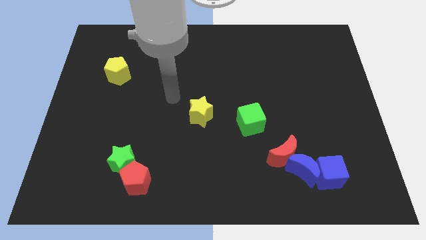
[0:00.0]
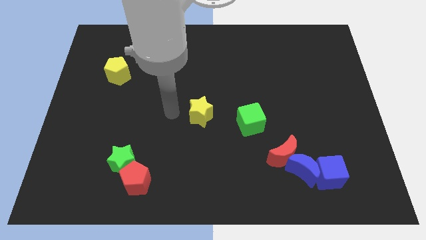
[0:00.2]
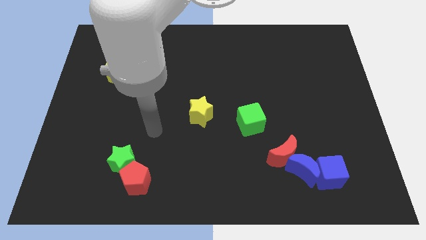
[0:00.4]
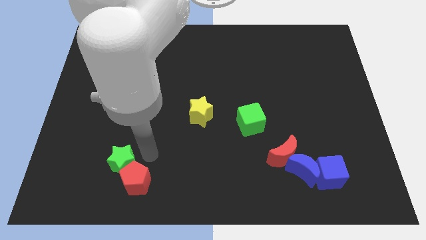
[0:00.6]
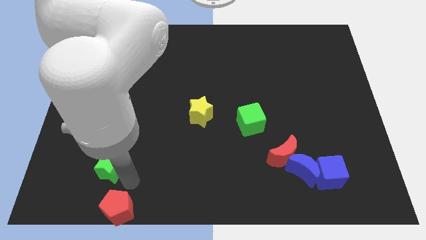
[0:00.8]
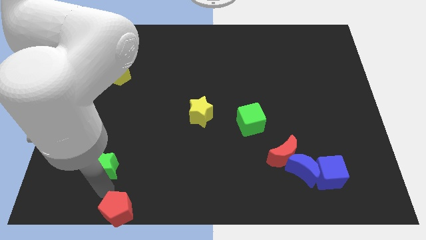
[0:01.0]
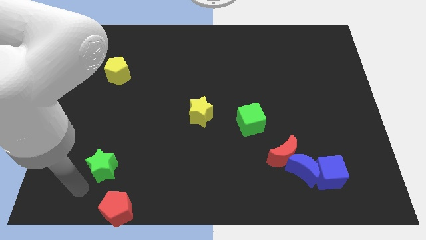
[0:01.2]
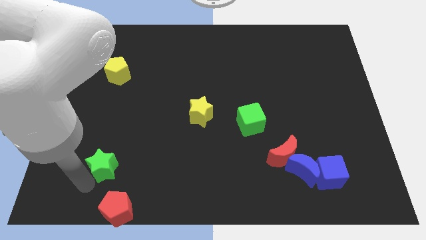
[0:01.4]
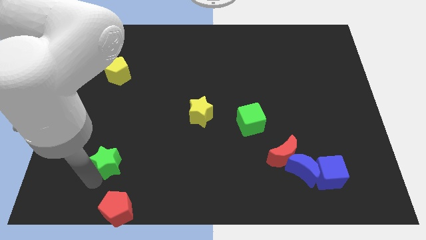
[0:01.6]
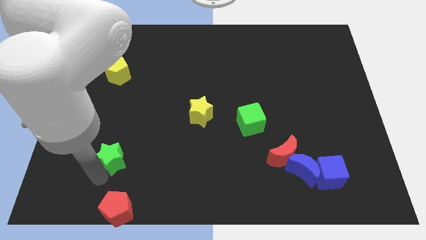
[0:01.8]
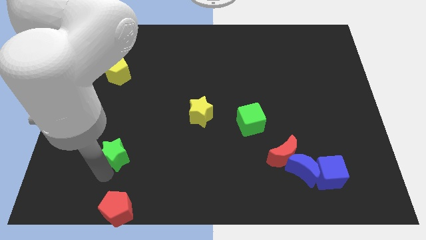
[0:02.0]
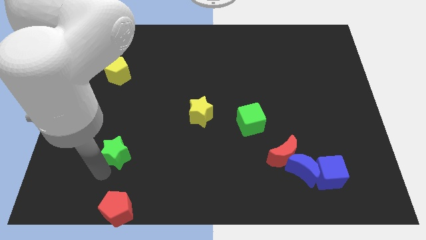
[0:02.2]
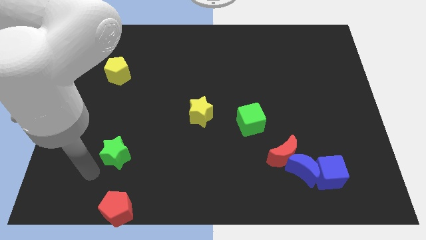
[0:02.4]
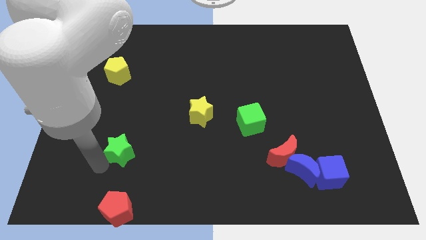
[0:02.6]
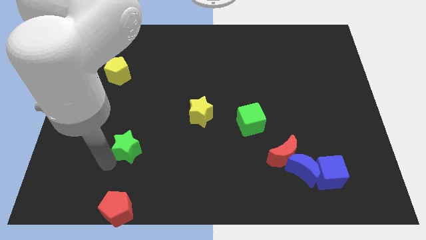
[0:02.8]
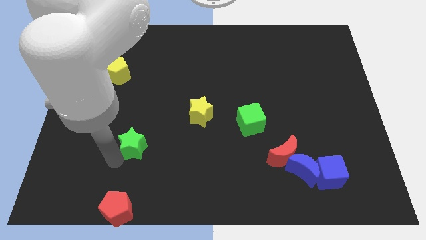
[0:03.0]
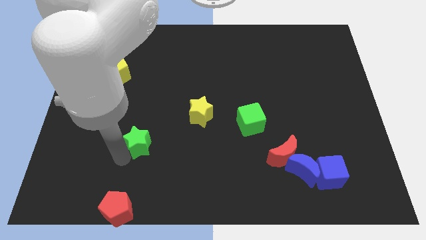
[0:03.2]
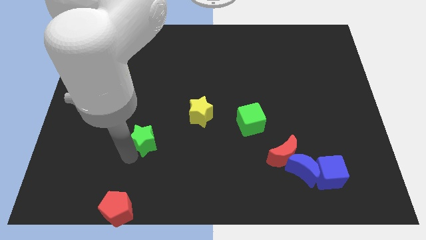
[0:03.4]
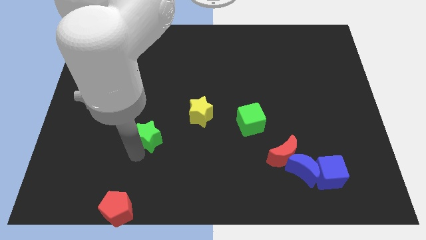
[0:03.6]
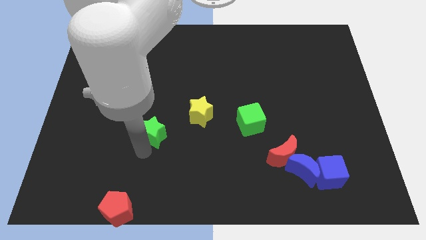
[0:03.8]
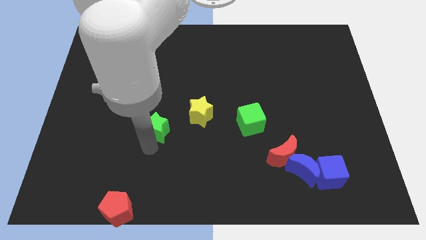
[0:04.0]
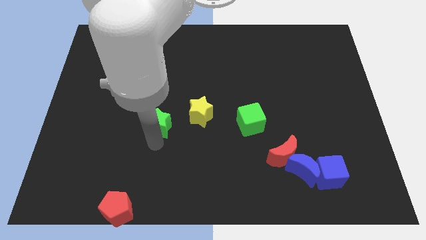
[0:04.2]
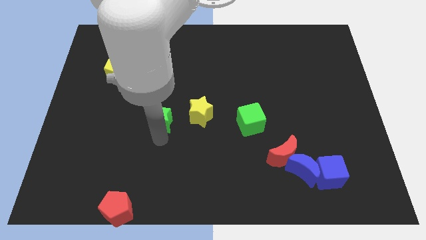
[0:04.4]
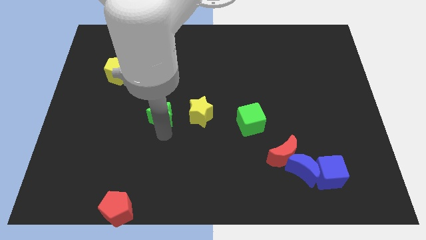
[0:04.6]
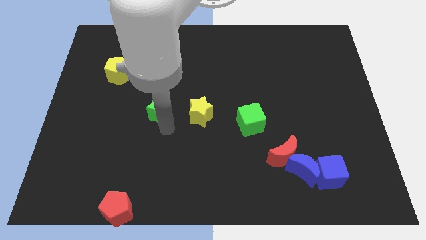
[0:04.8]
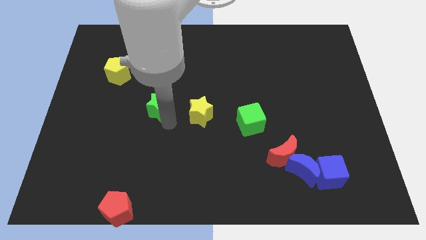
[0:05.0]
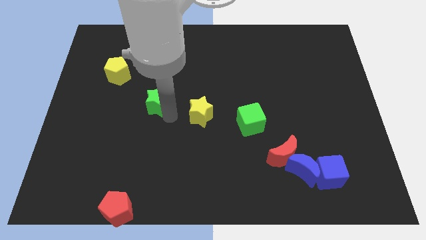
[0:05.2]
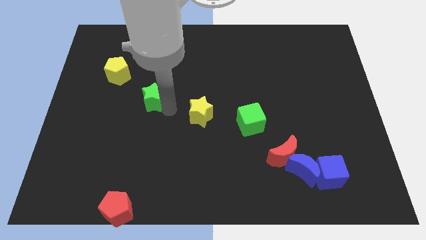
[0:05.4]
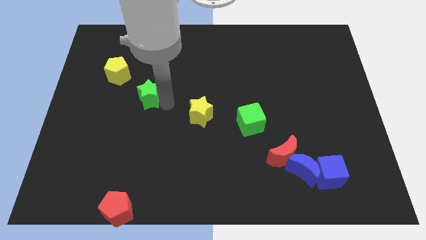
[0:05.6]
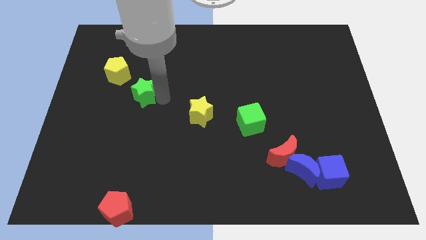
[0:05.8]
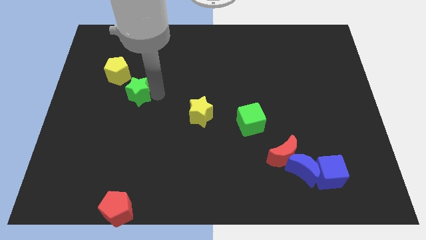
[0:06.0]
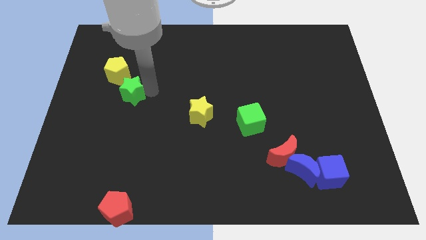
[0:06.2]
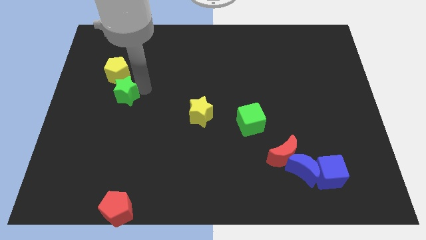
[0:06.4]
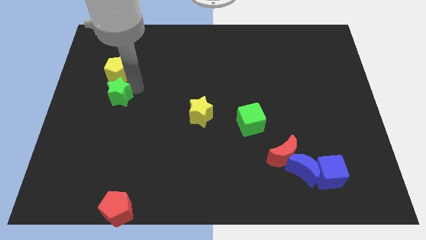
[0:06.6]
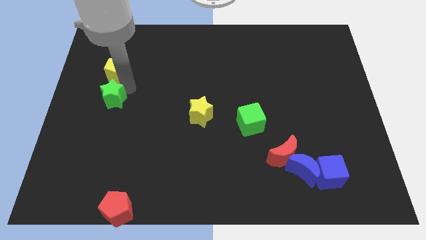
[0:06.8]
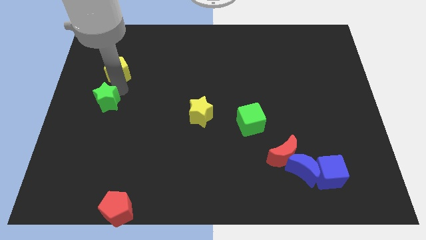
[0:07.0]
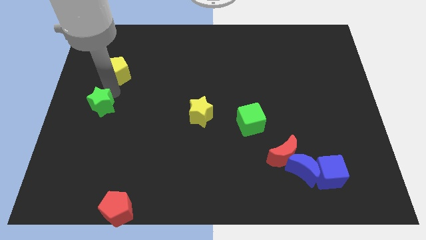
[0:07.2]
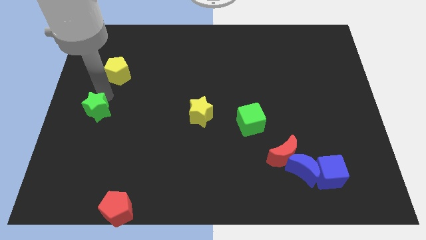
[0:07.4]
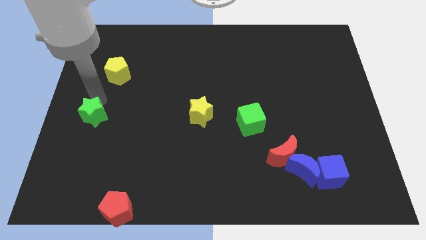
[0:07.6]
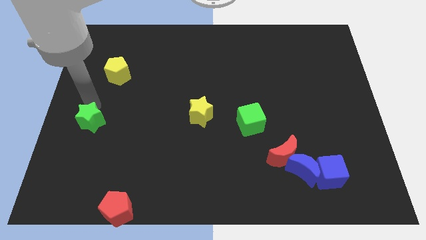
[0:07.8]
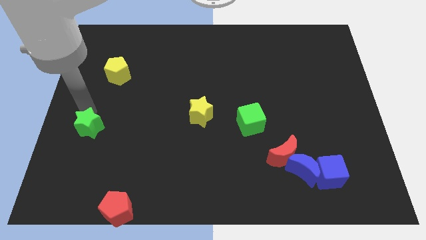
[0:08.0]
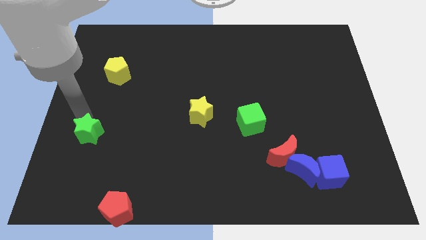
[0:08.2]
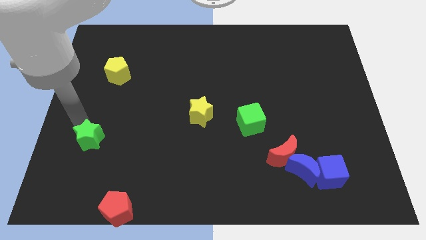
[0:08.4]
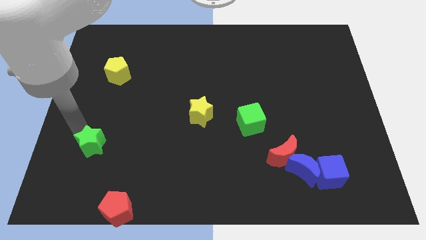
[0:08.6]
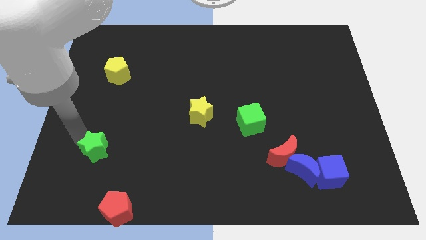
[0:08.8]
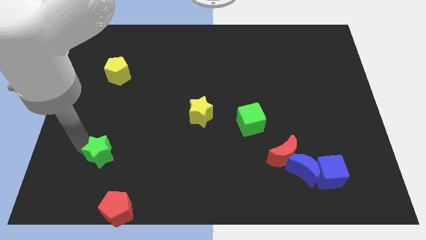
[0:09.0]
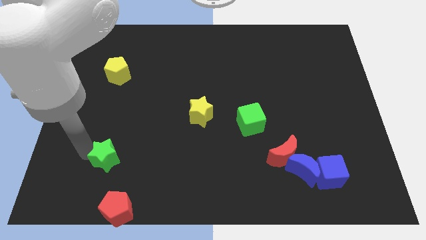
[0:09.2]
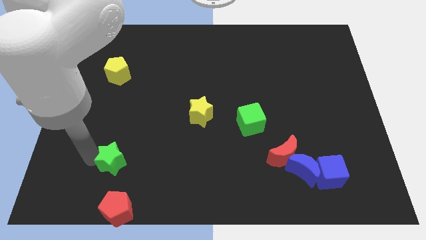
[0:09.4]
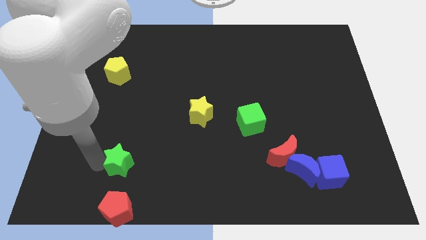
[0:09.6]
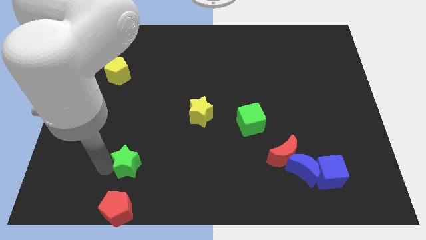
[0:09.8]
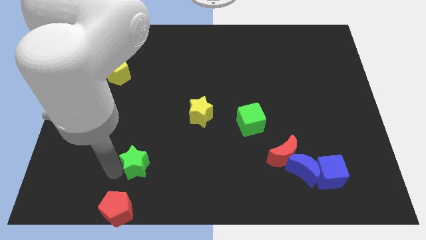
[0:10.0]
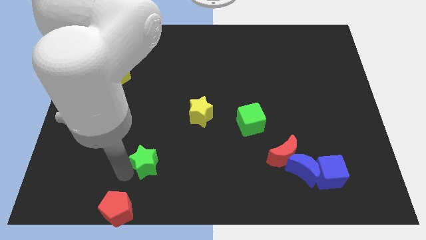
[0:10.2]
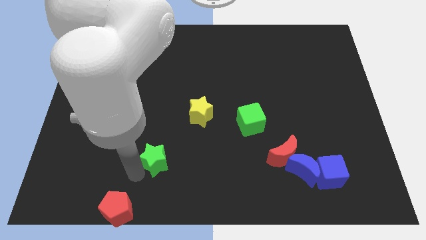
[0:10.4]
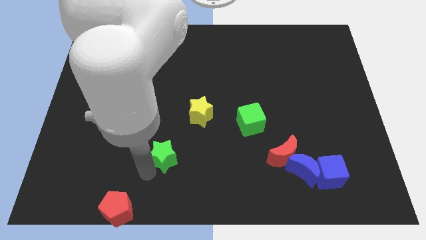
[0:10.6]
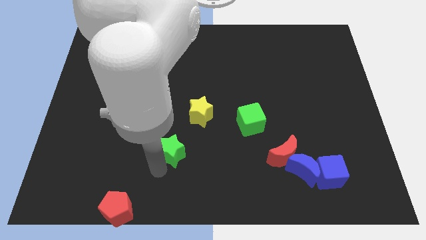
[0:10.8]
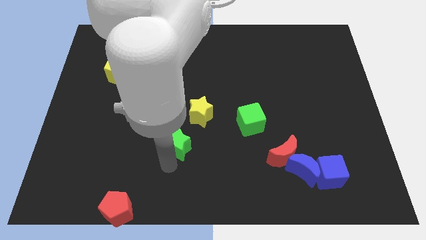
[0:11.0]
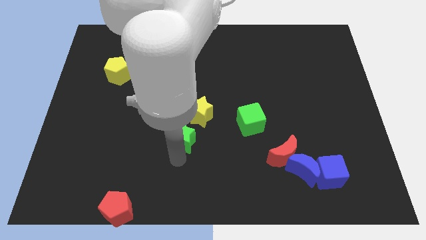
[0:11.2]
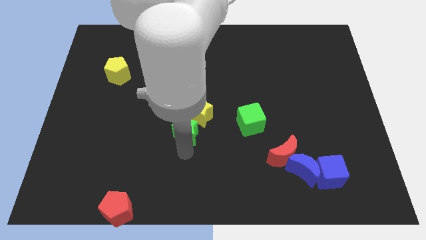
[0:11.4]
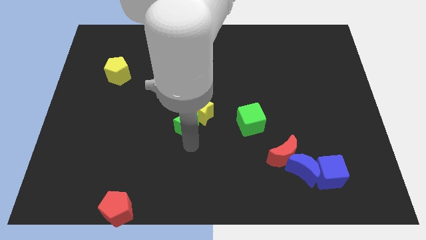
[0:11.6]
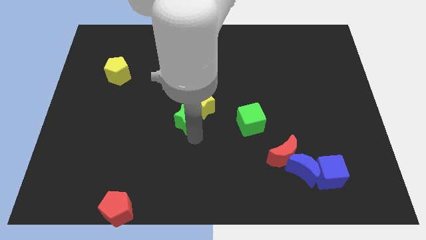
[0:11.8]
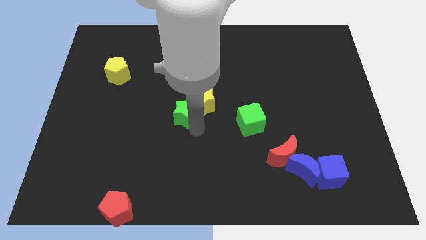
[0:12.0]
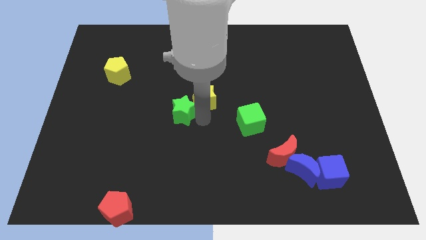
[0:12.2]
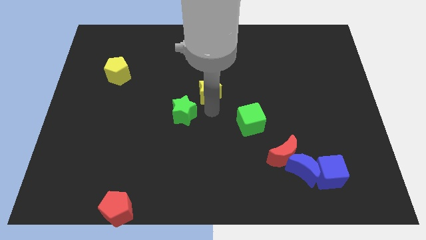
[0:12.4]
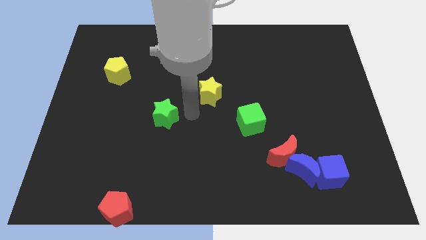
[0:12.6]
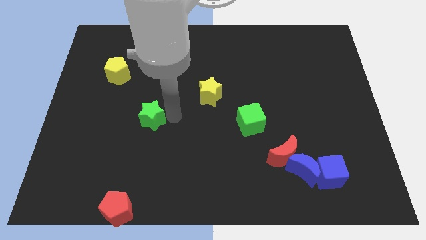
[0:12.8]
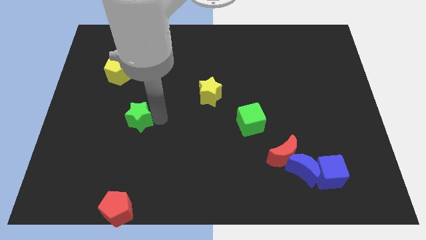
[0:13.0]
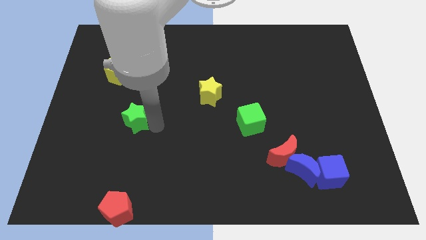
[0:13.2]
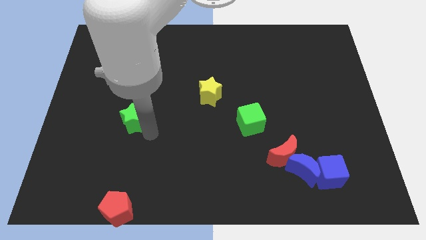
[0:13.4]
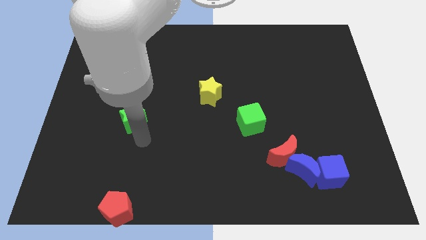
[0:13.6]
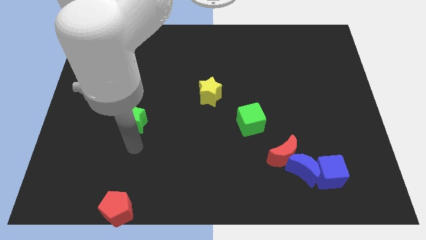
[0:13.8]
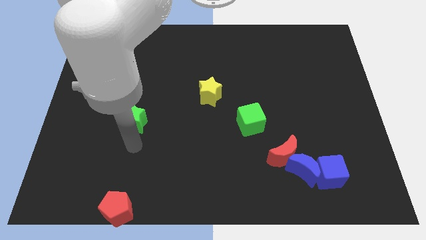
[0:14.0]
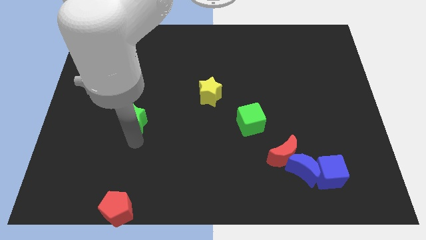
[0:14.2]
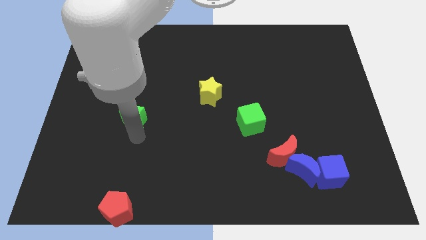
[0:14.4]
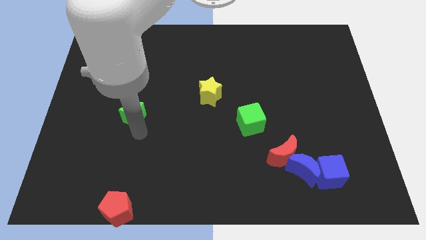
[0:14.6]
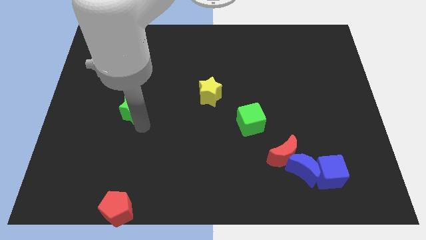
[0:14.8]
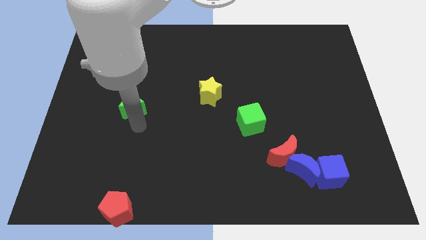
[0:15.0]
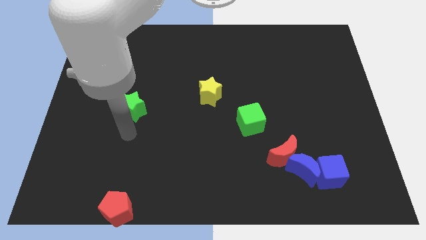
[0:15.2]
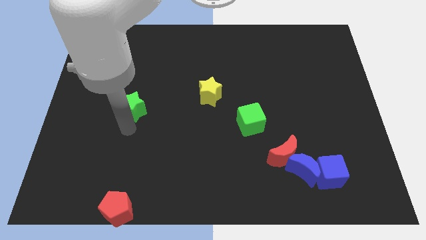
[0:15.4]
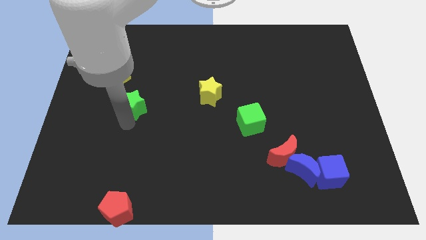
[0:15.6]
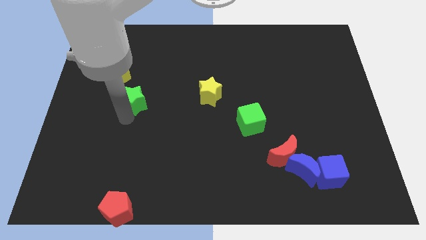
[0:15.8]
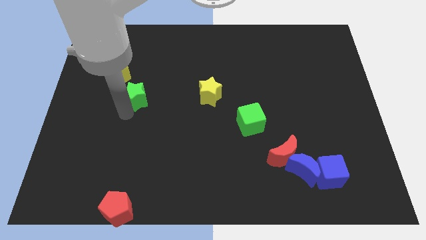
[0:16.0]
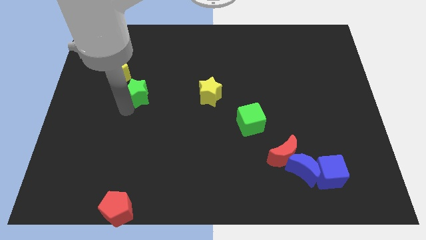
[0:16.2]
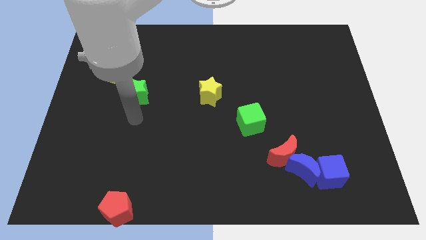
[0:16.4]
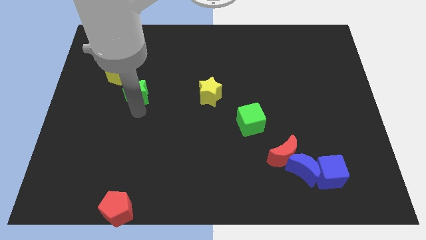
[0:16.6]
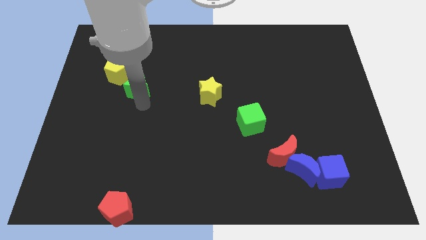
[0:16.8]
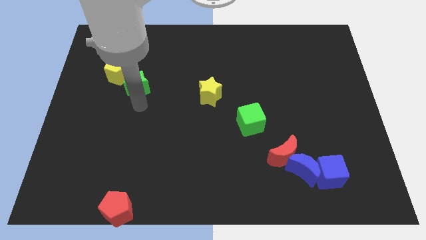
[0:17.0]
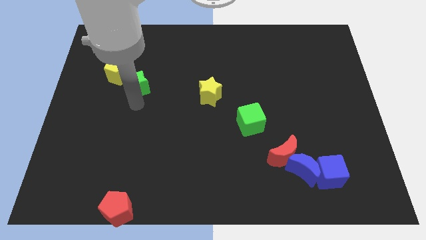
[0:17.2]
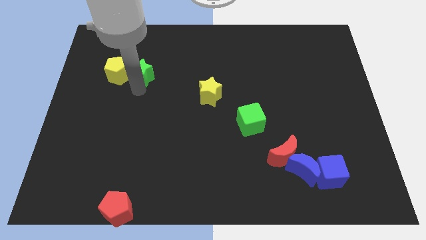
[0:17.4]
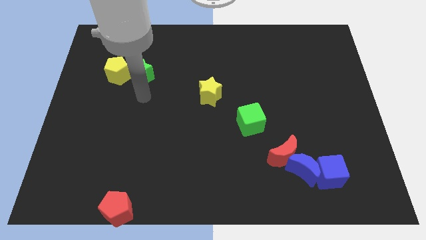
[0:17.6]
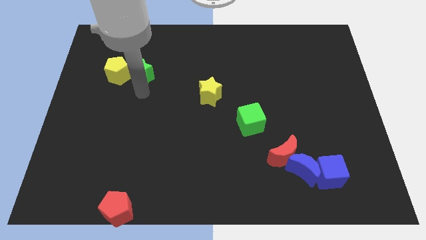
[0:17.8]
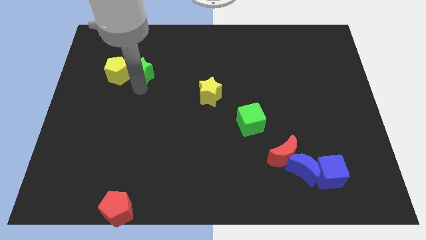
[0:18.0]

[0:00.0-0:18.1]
move the green star diagonally up and to the right of the yellow pentagon
